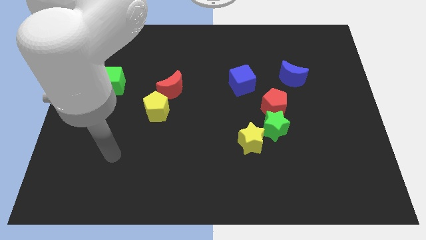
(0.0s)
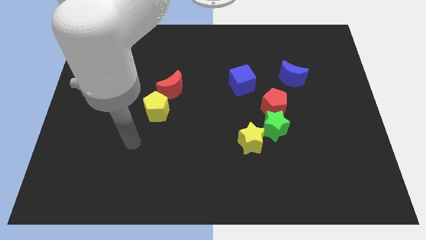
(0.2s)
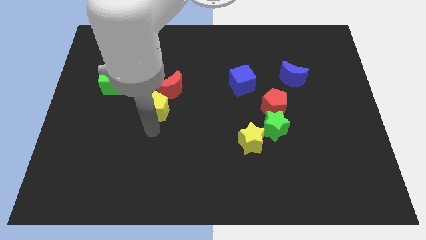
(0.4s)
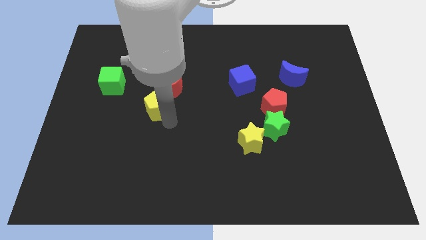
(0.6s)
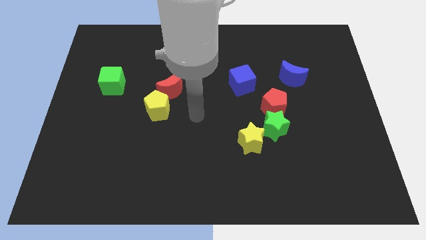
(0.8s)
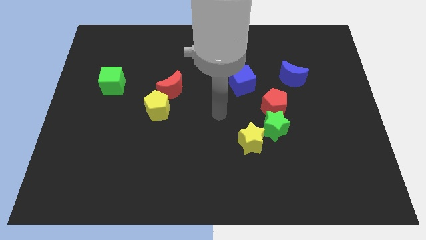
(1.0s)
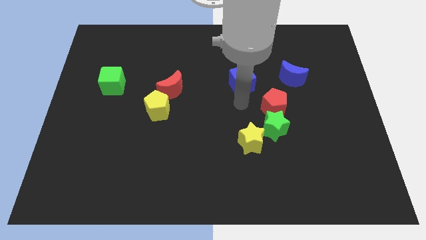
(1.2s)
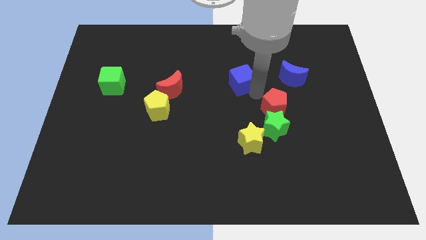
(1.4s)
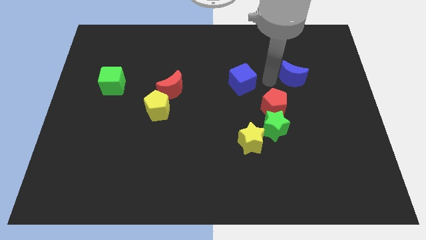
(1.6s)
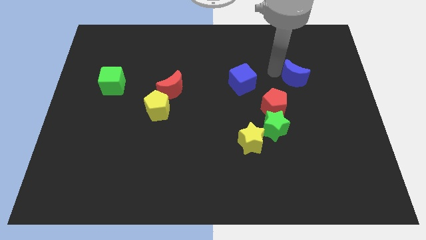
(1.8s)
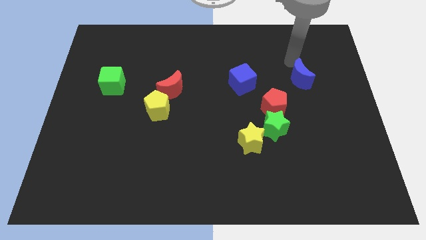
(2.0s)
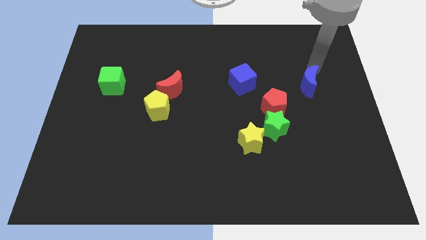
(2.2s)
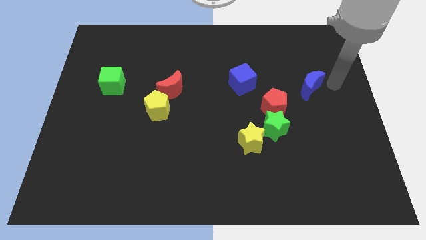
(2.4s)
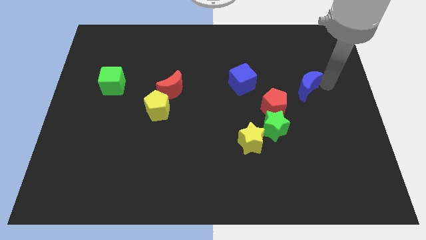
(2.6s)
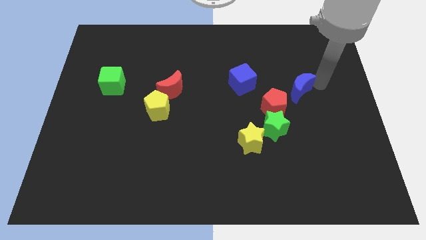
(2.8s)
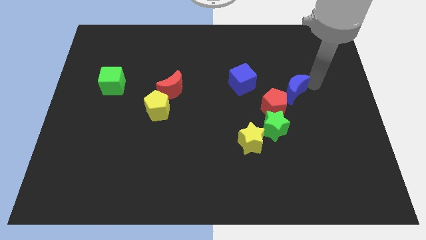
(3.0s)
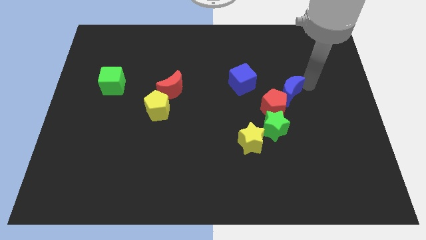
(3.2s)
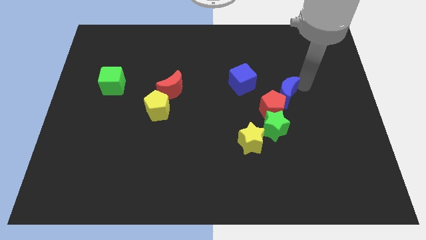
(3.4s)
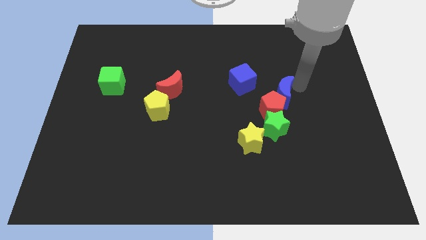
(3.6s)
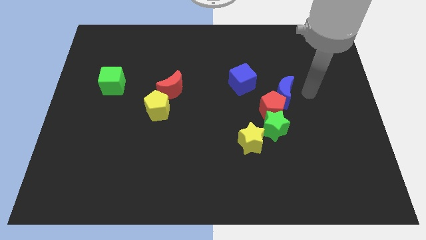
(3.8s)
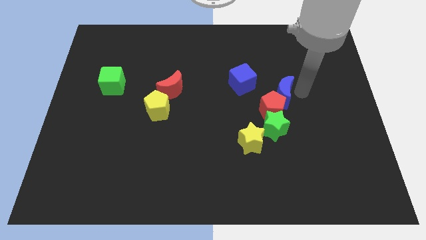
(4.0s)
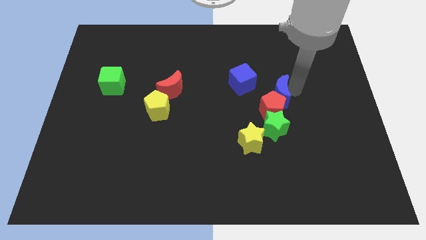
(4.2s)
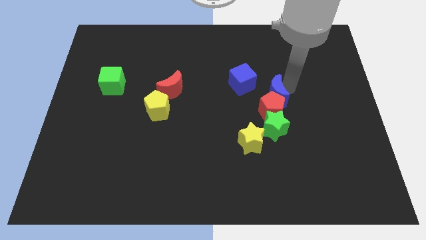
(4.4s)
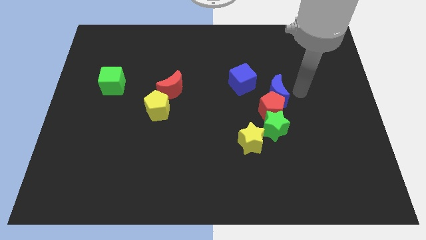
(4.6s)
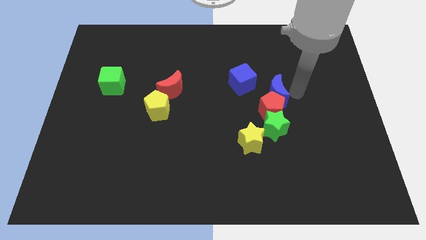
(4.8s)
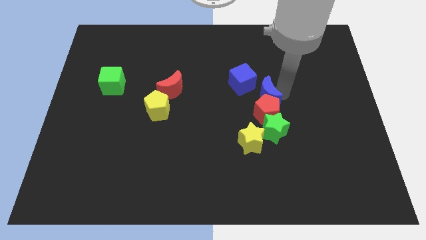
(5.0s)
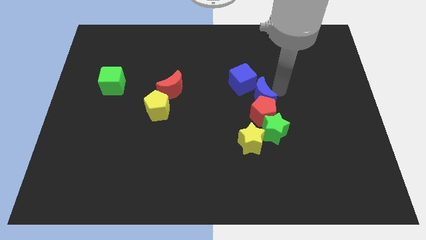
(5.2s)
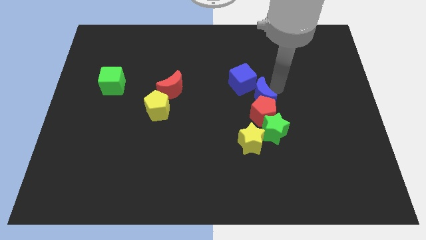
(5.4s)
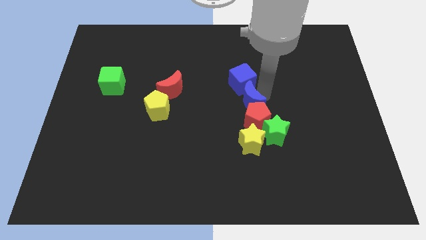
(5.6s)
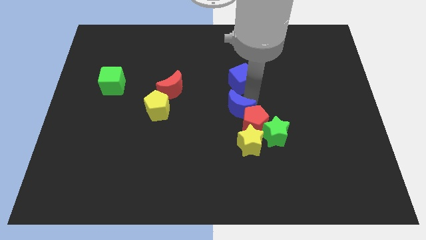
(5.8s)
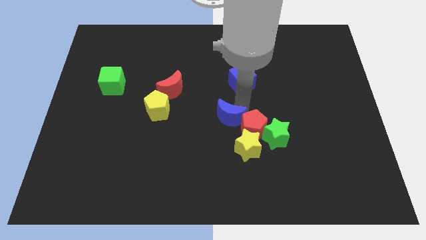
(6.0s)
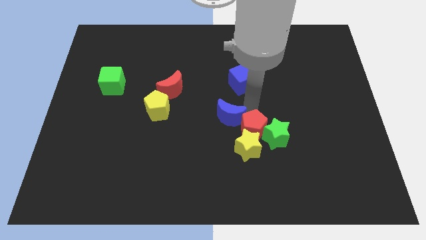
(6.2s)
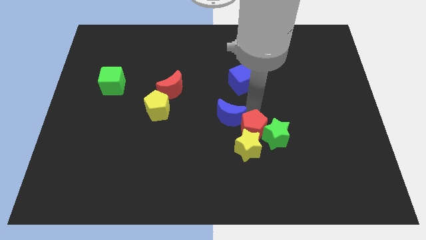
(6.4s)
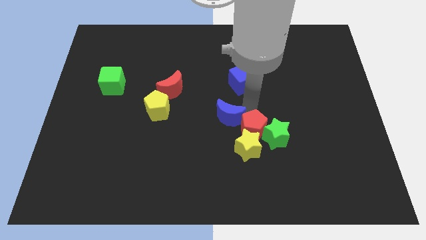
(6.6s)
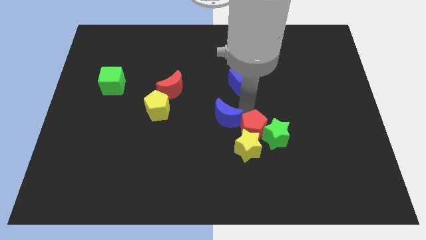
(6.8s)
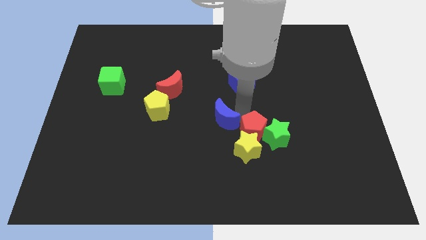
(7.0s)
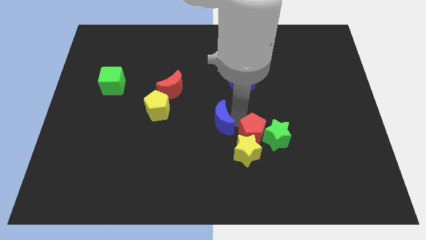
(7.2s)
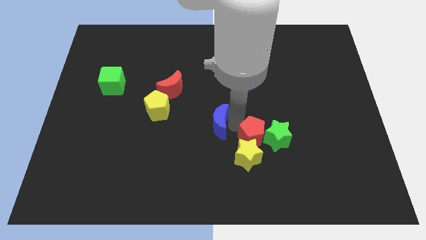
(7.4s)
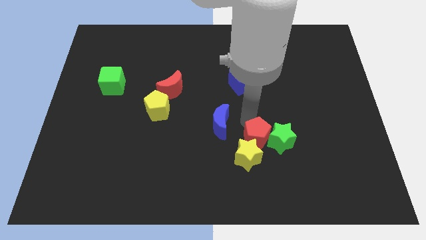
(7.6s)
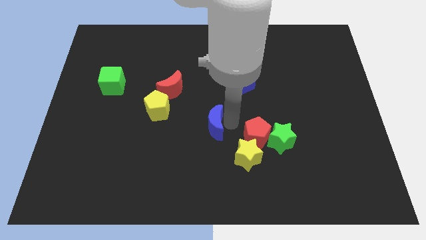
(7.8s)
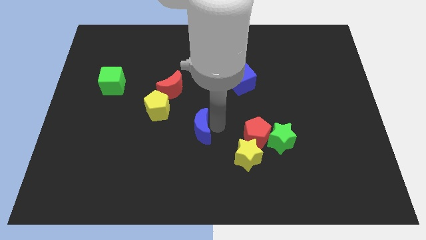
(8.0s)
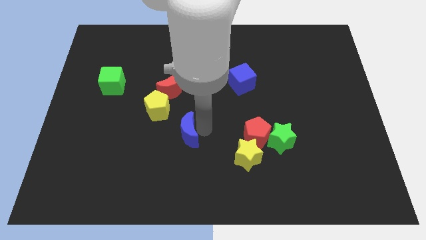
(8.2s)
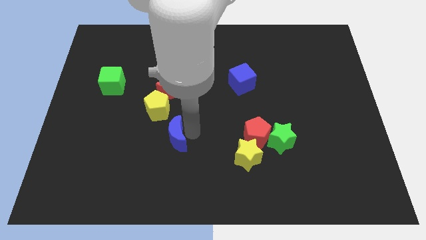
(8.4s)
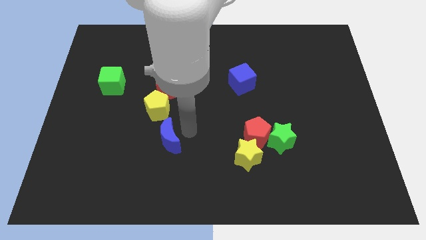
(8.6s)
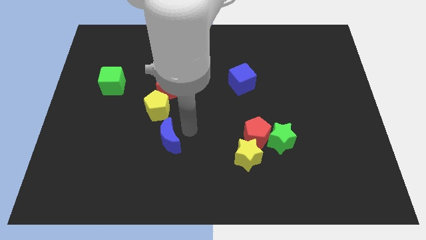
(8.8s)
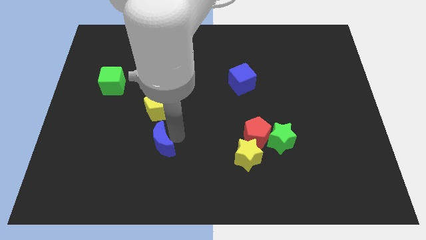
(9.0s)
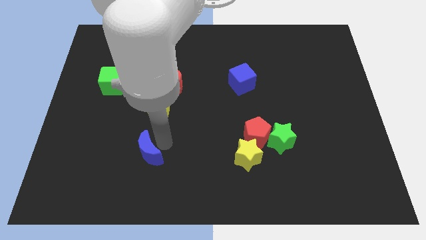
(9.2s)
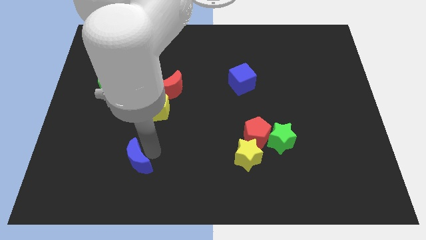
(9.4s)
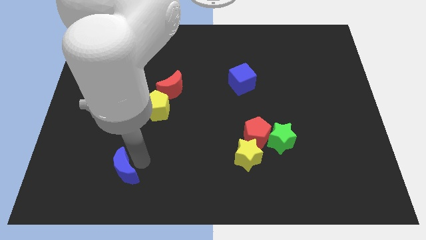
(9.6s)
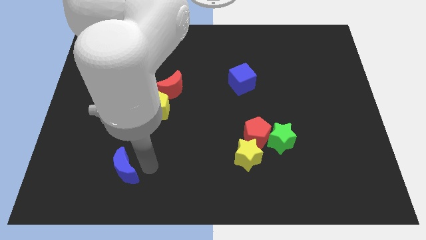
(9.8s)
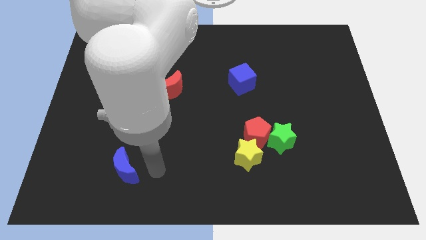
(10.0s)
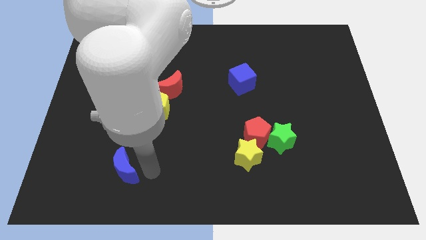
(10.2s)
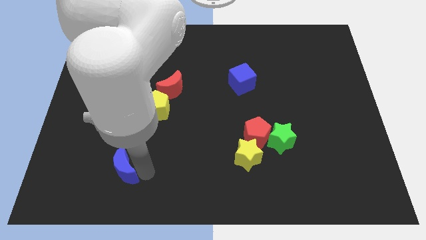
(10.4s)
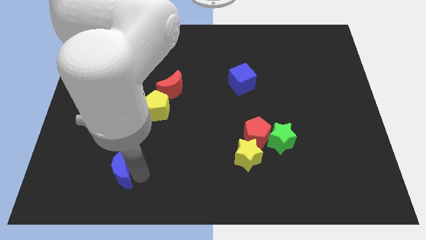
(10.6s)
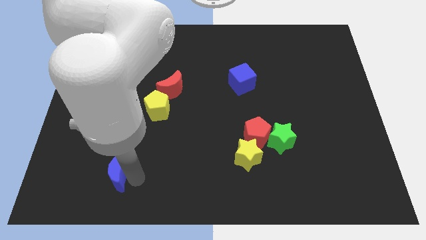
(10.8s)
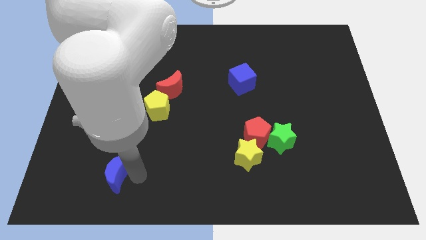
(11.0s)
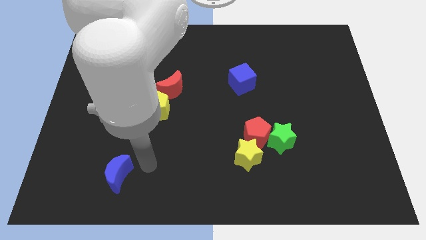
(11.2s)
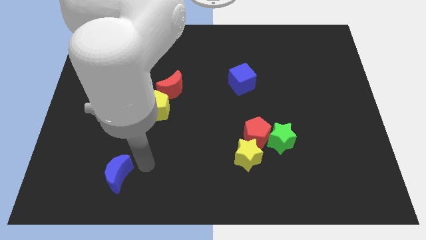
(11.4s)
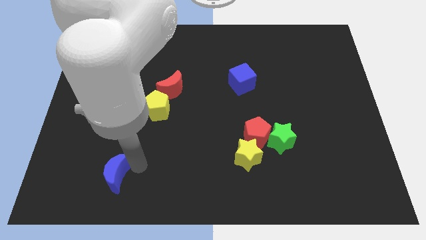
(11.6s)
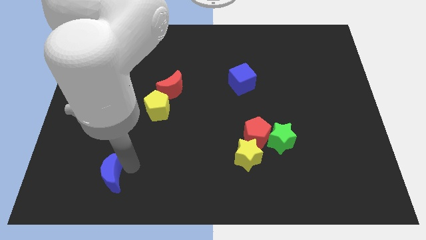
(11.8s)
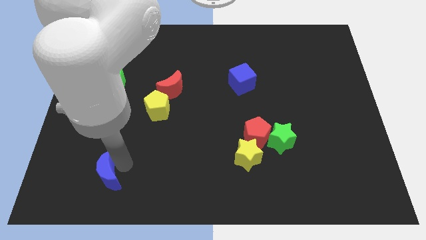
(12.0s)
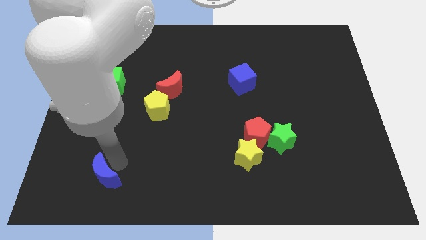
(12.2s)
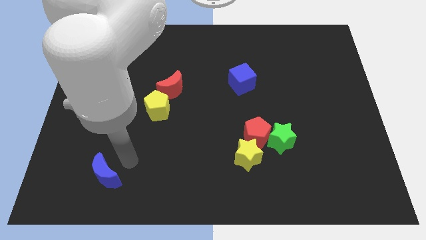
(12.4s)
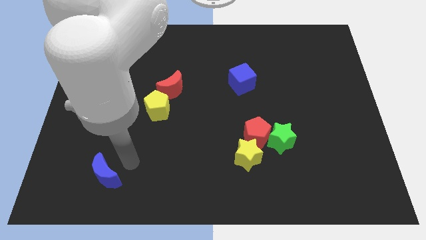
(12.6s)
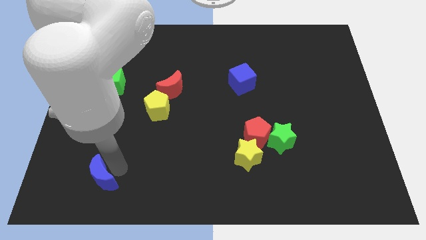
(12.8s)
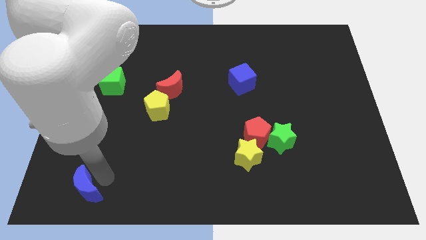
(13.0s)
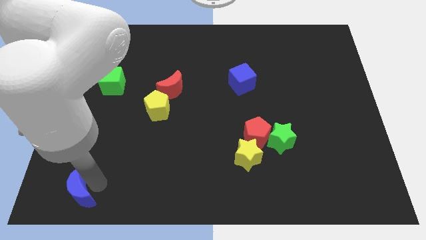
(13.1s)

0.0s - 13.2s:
move the blue moon to the lower left corner
